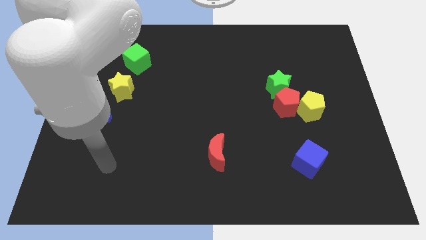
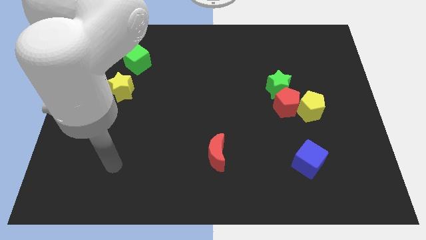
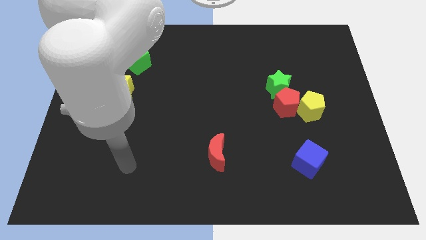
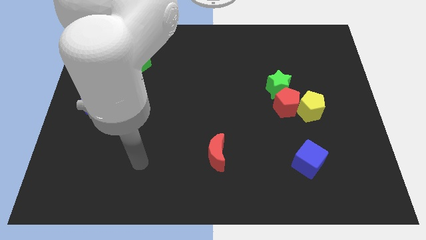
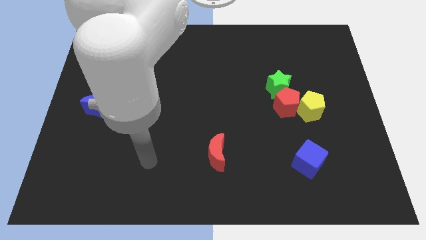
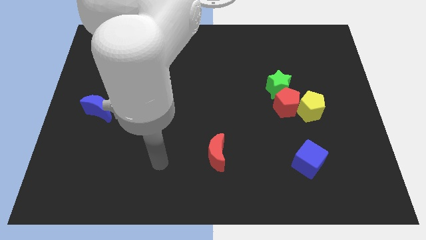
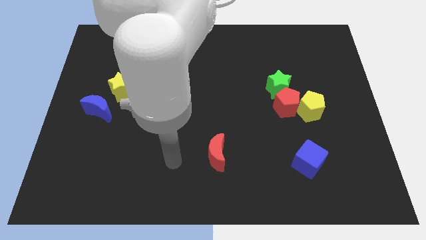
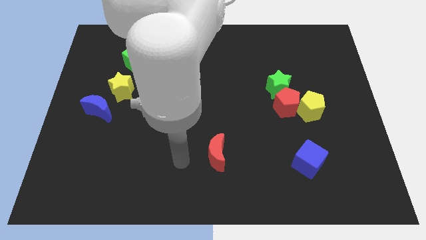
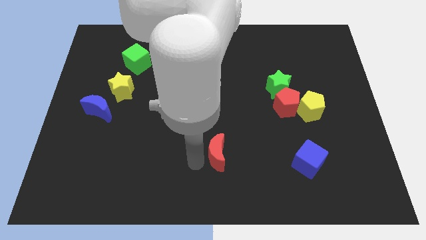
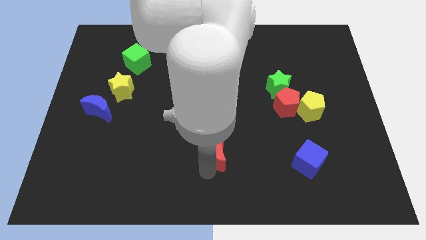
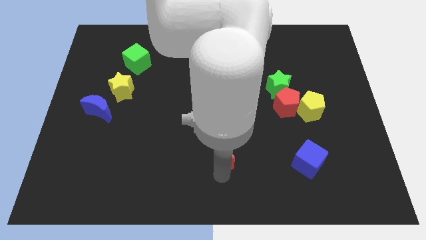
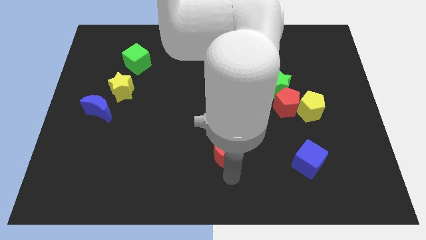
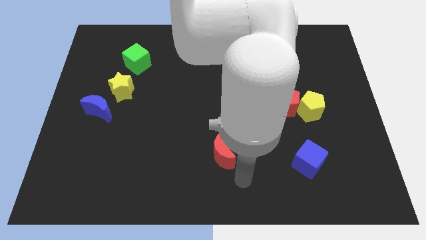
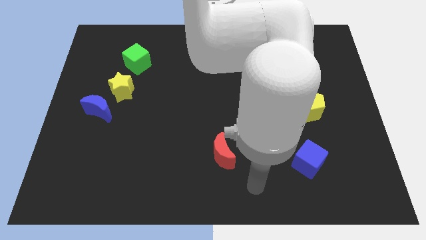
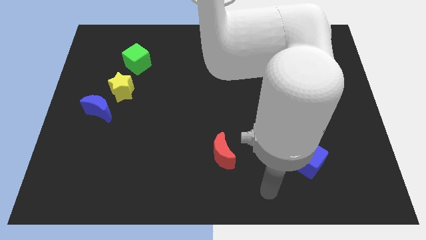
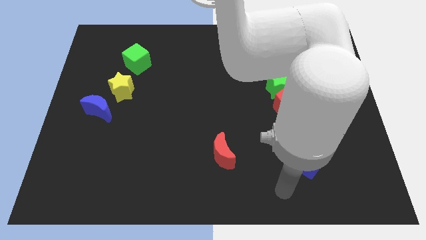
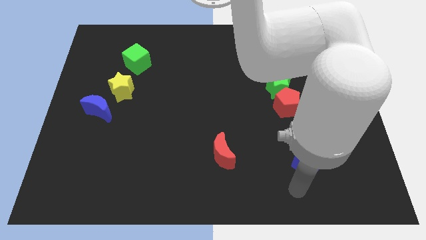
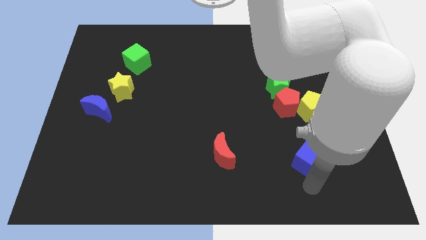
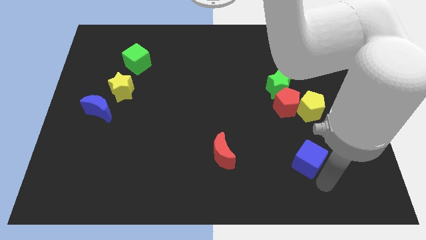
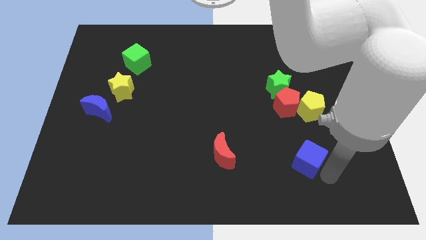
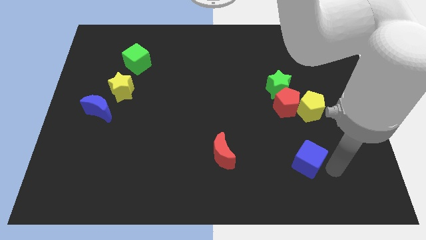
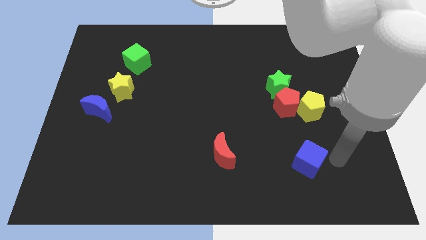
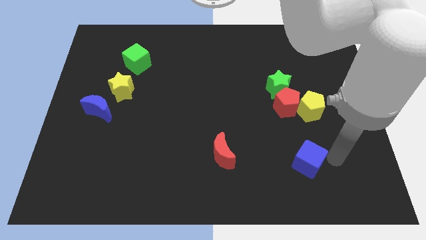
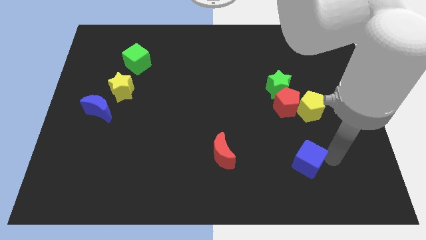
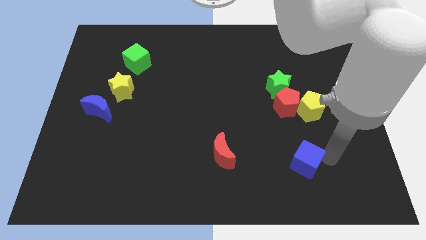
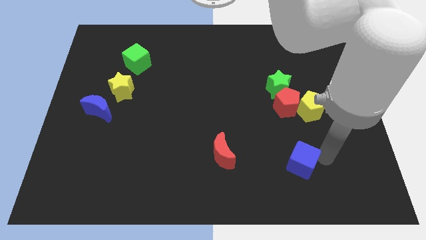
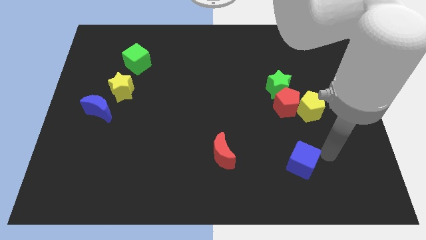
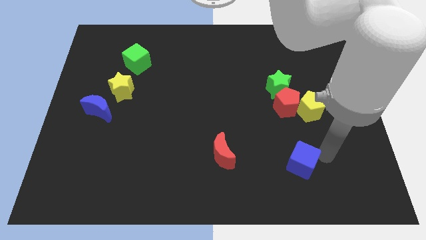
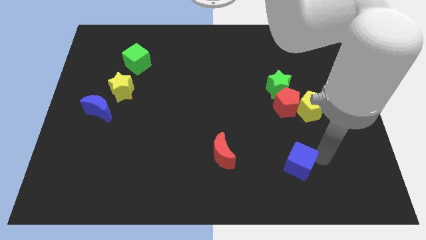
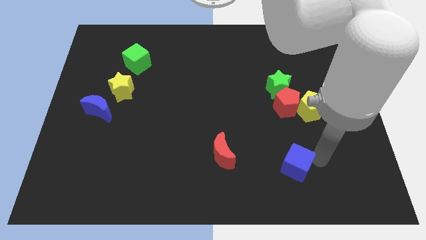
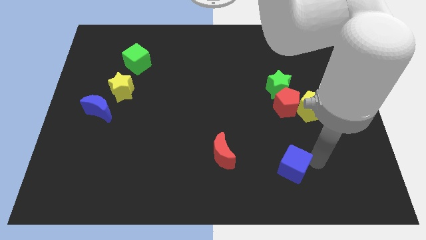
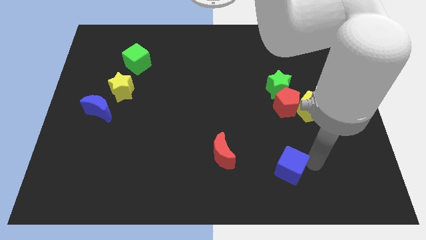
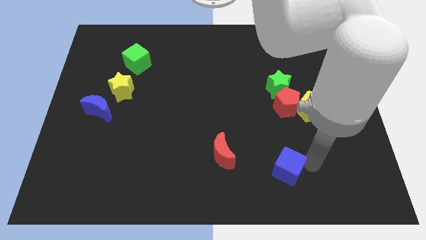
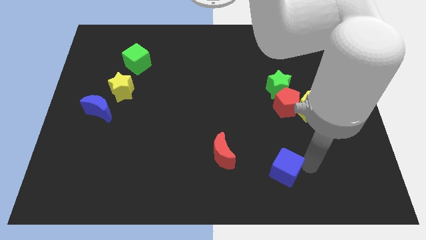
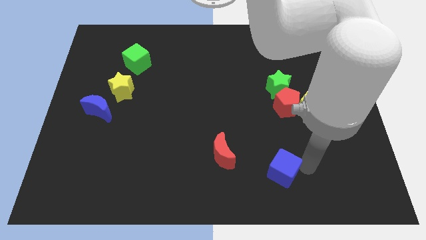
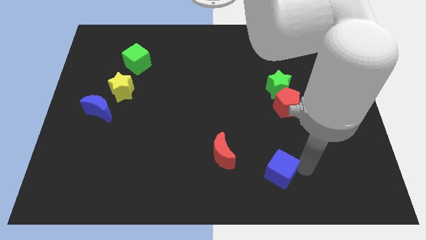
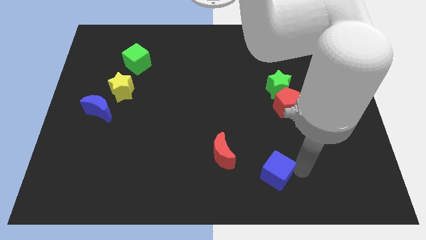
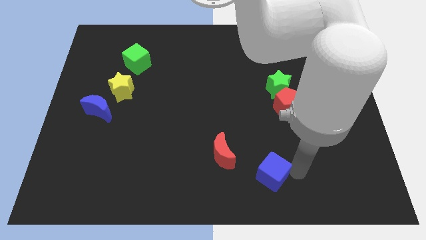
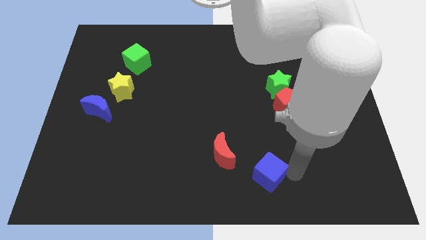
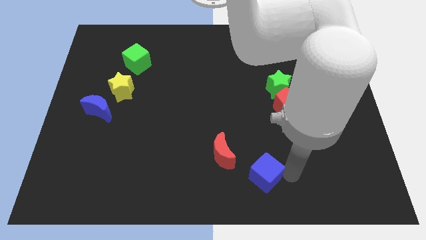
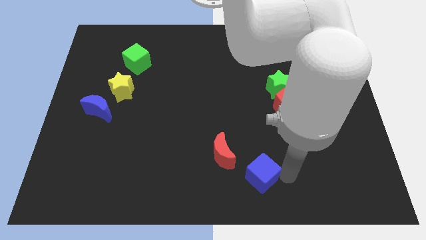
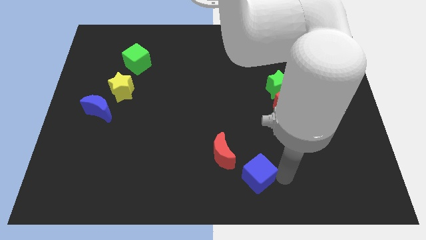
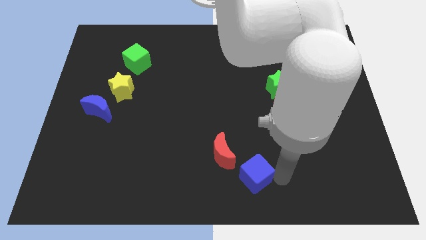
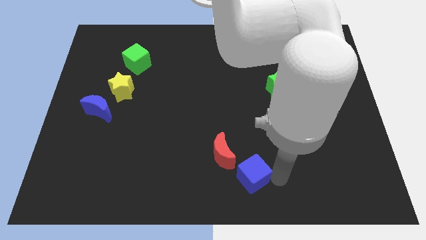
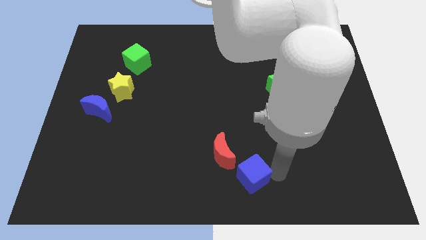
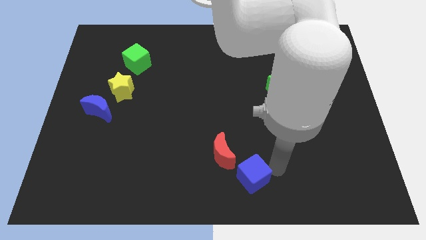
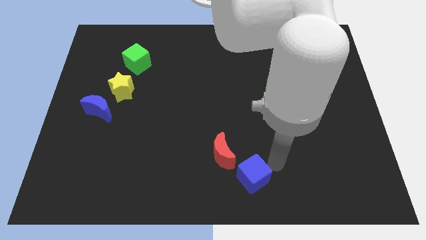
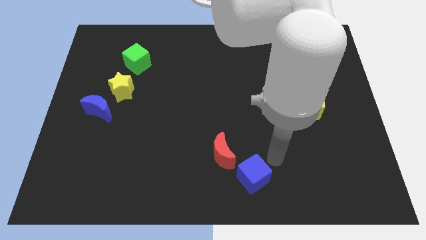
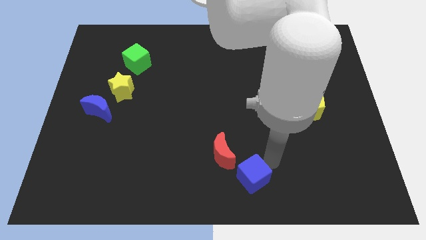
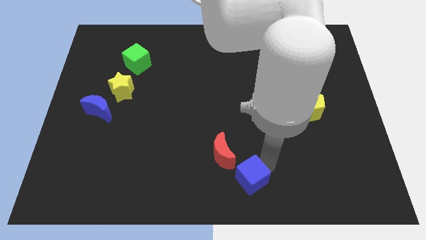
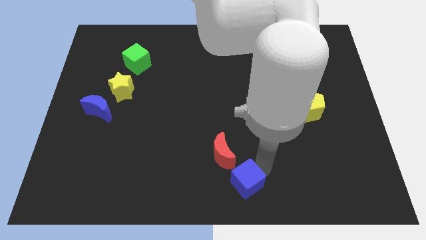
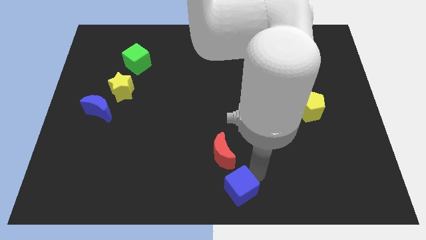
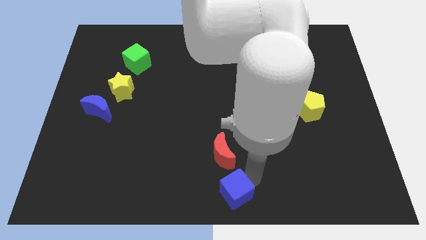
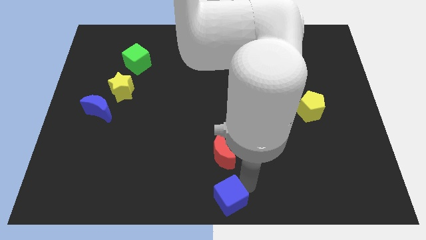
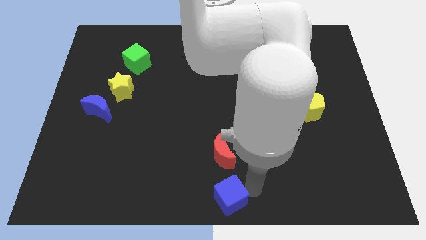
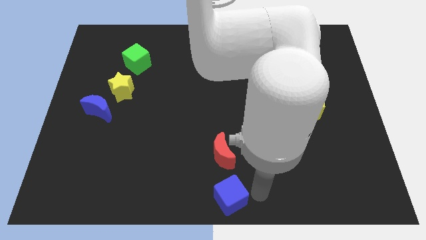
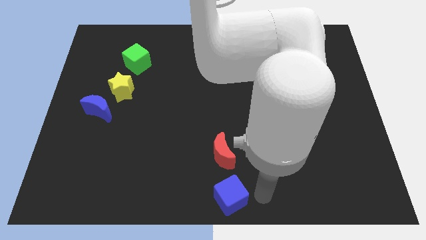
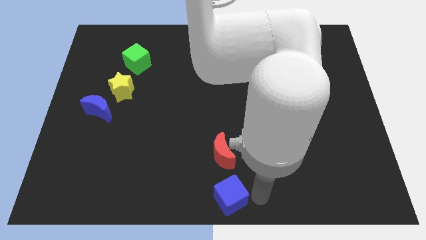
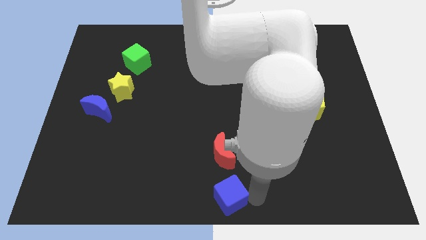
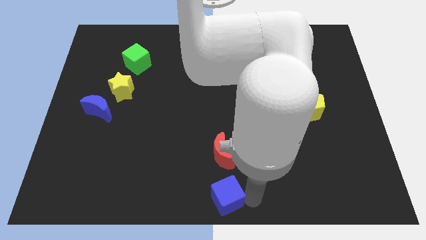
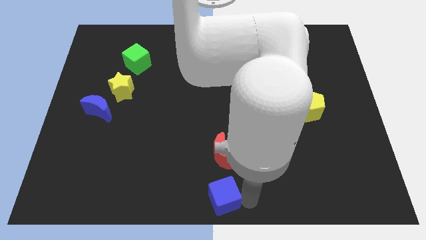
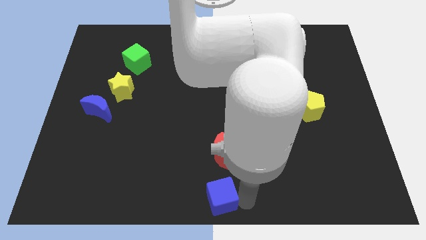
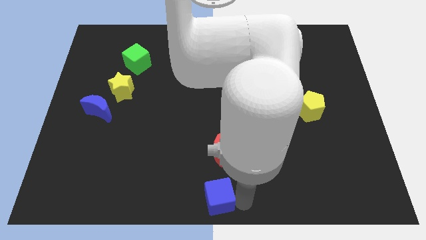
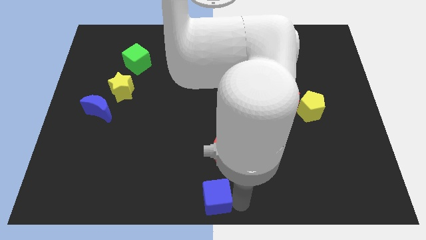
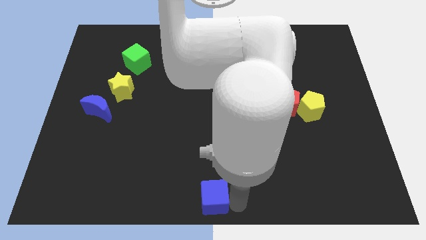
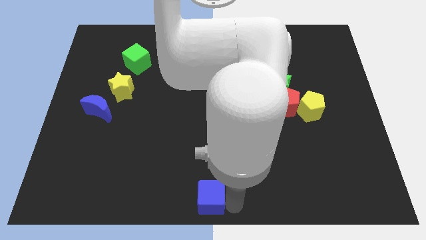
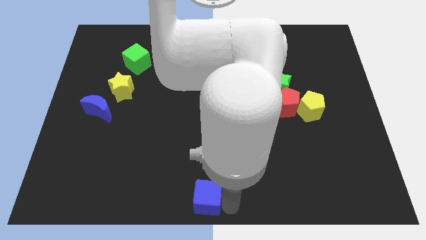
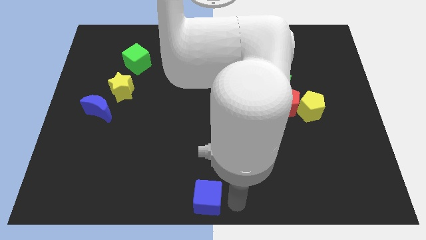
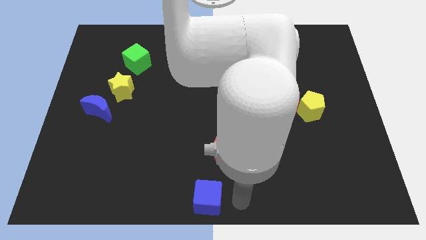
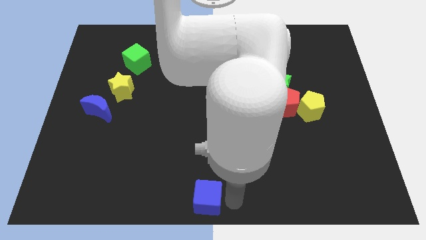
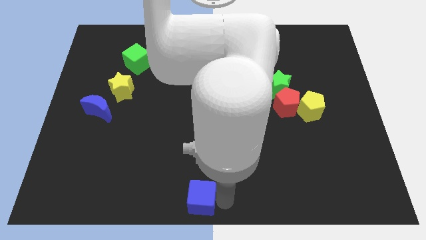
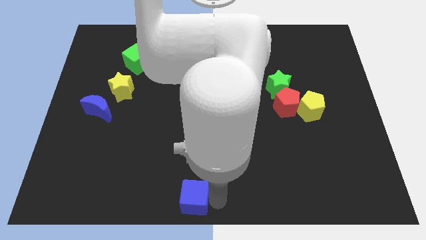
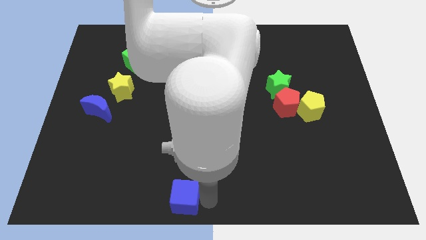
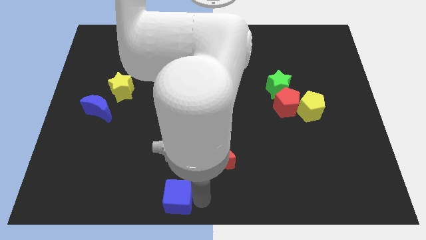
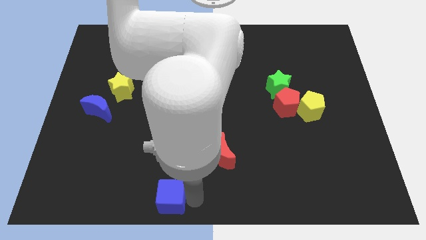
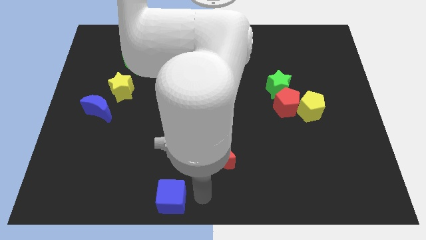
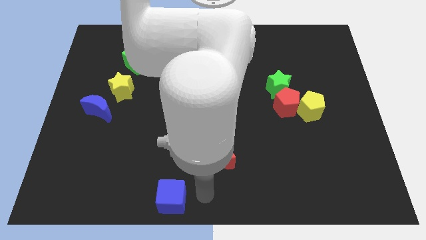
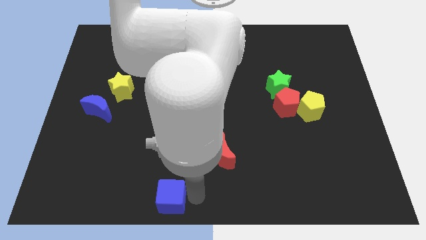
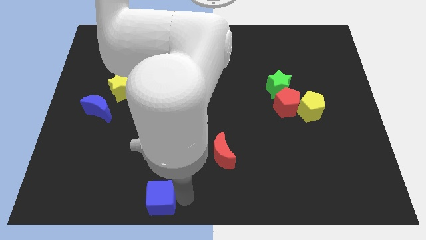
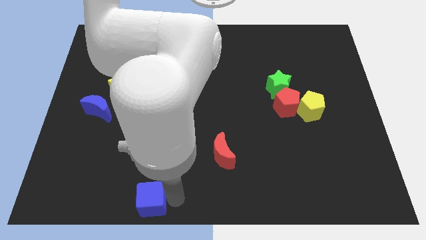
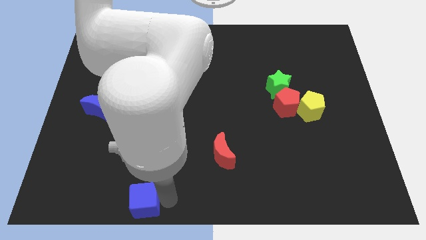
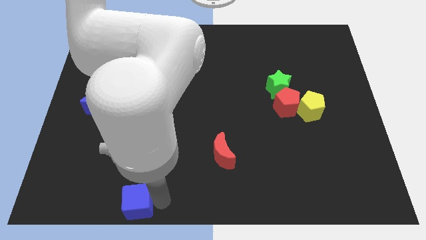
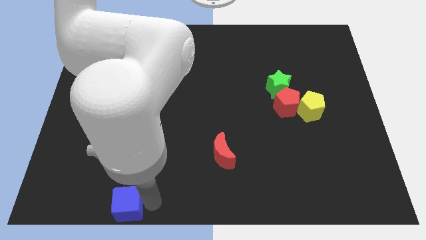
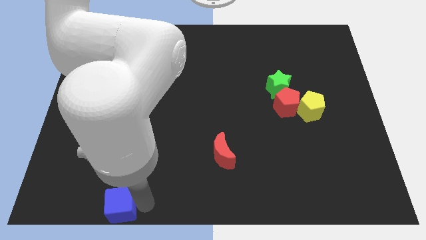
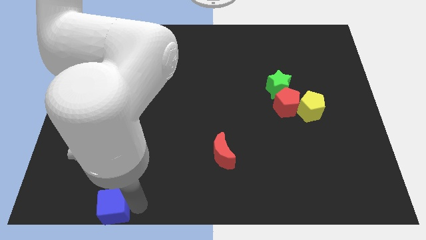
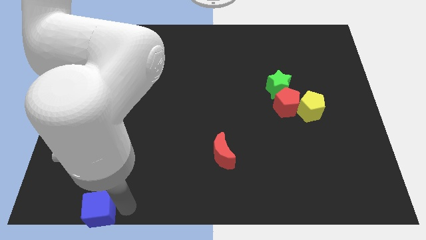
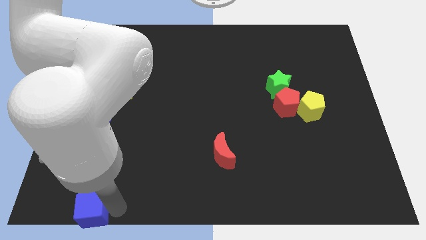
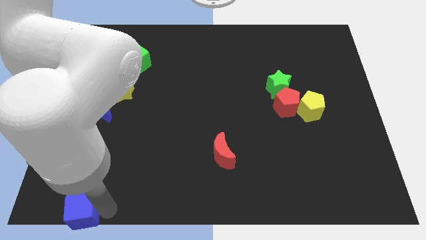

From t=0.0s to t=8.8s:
put the blue cube to the lower left corner
